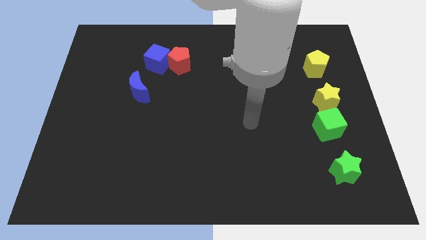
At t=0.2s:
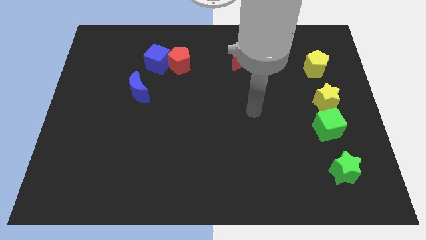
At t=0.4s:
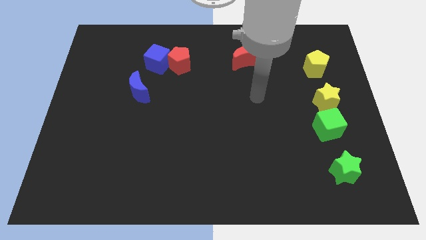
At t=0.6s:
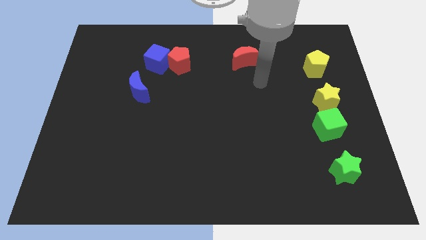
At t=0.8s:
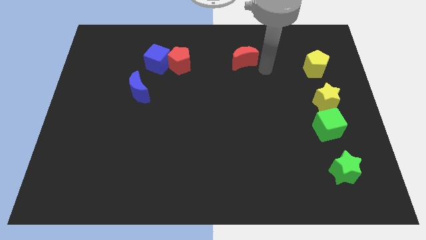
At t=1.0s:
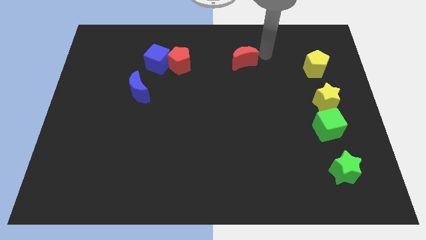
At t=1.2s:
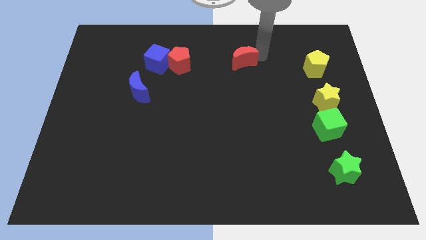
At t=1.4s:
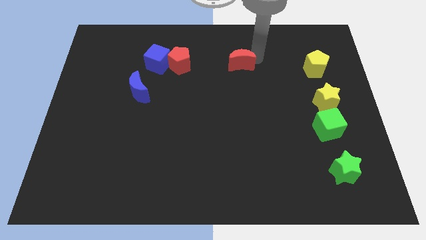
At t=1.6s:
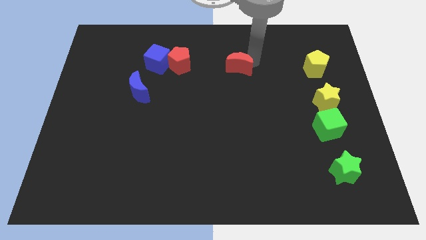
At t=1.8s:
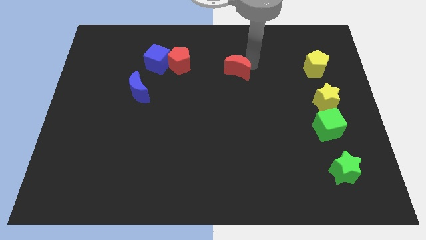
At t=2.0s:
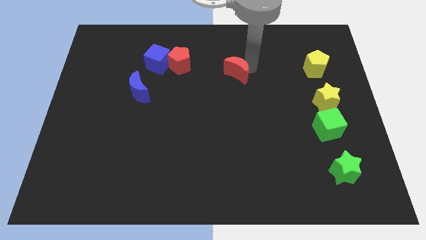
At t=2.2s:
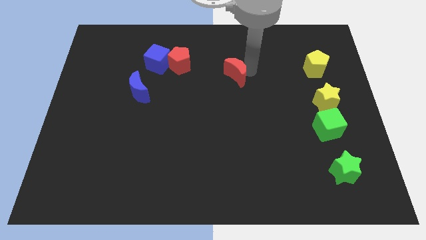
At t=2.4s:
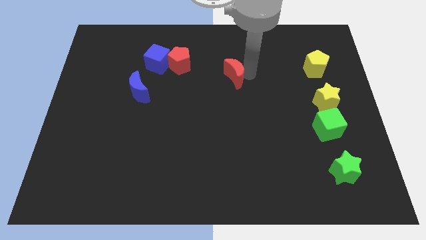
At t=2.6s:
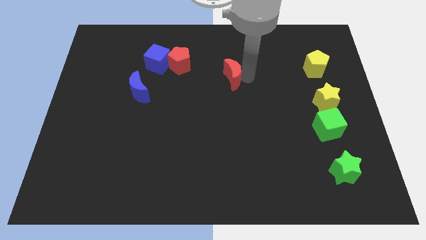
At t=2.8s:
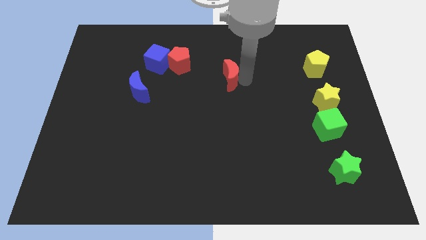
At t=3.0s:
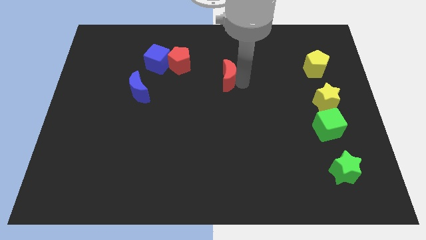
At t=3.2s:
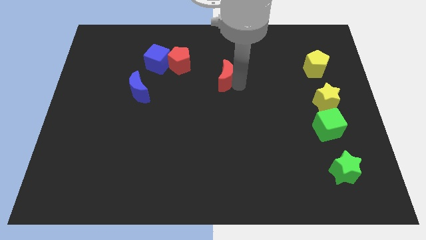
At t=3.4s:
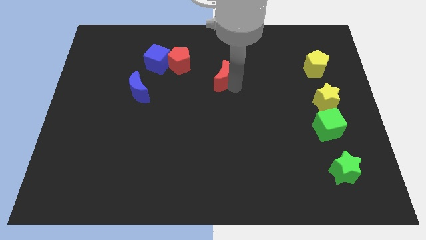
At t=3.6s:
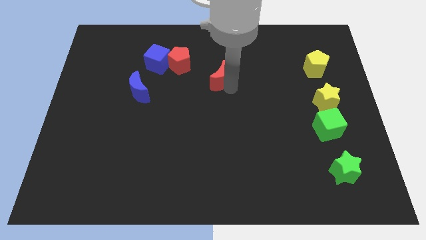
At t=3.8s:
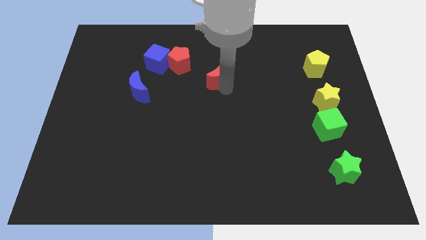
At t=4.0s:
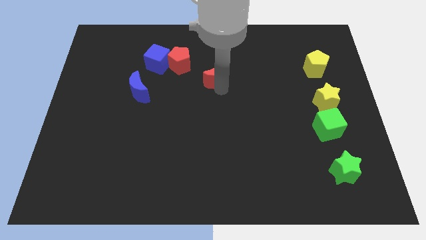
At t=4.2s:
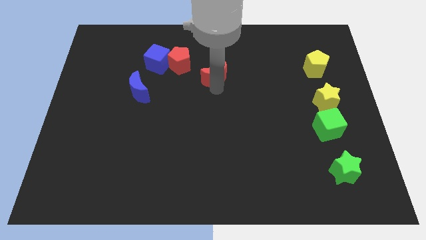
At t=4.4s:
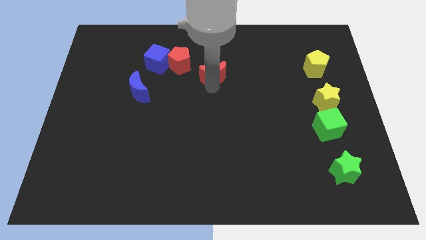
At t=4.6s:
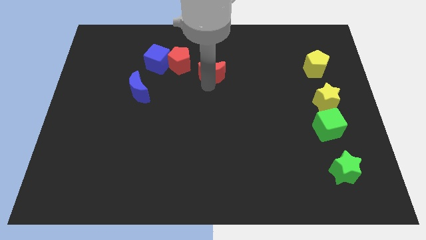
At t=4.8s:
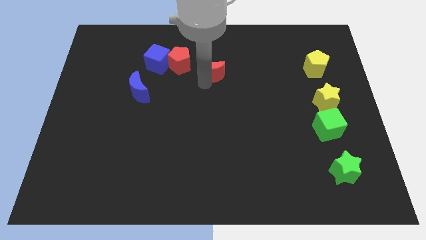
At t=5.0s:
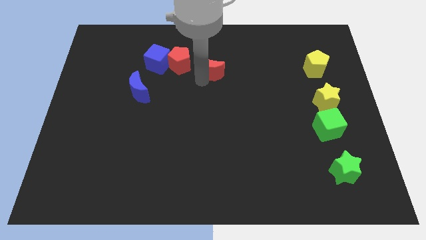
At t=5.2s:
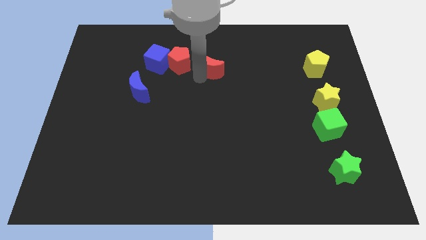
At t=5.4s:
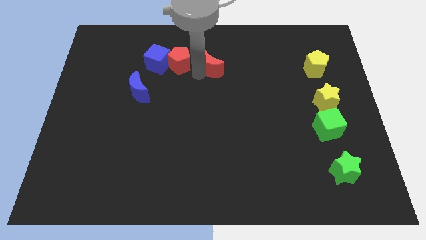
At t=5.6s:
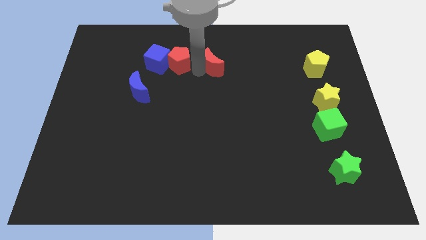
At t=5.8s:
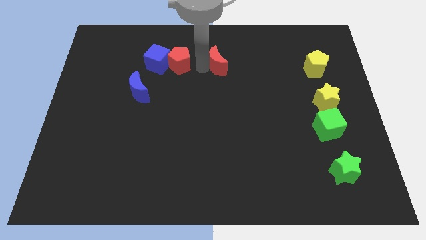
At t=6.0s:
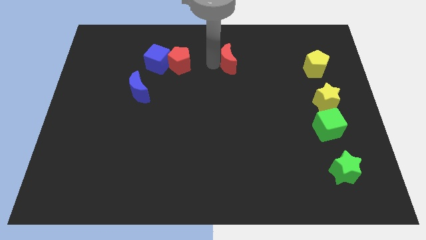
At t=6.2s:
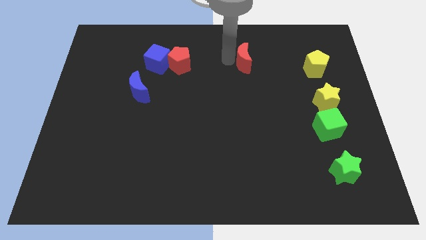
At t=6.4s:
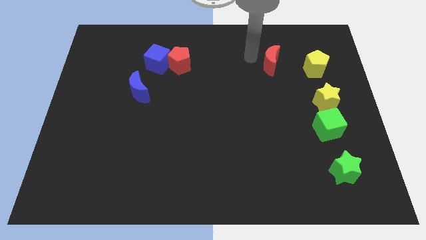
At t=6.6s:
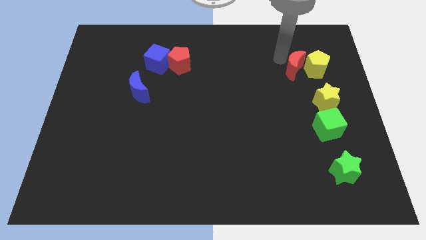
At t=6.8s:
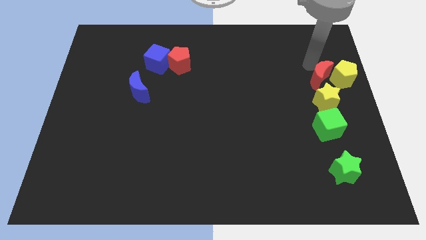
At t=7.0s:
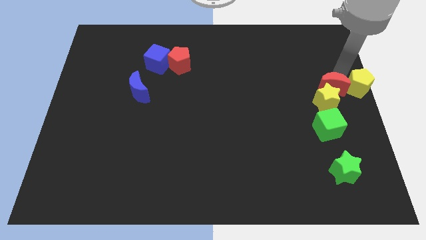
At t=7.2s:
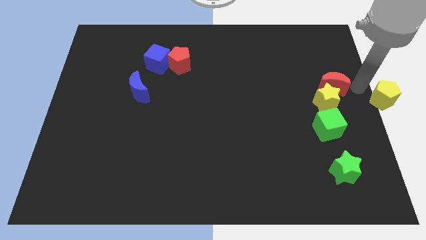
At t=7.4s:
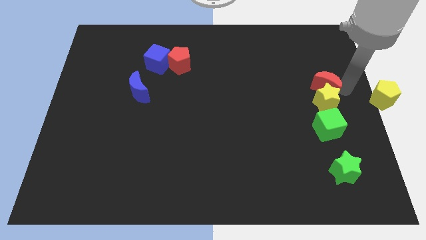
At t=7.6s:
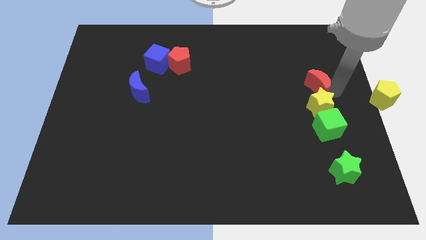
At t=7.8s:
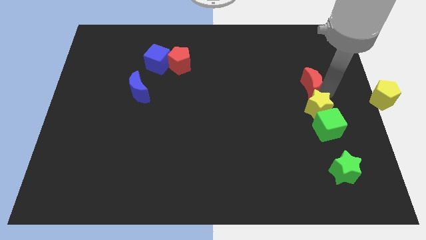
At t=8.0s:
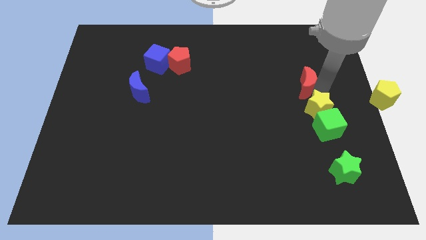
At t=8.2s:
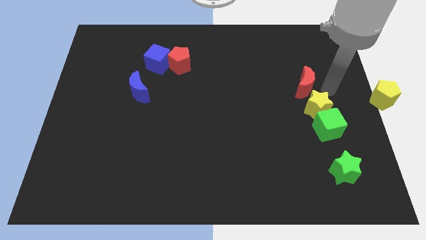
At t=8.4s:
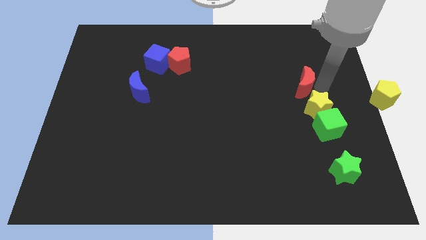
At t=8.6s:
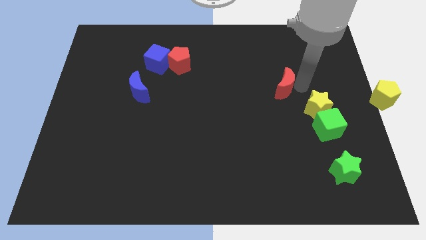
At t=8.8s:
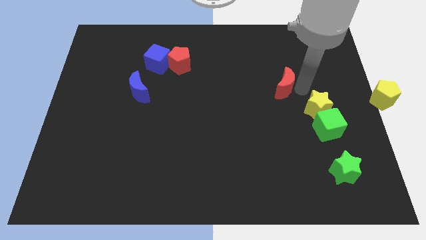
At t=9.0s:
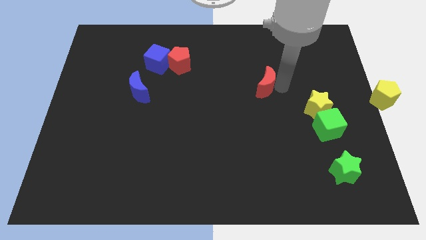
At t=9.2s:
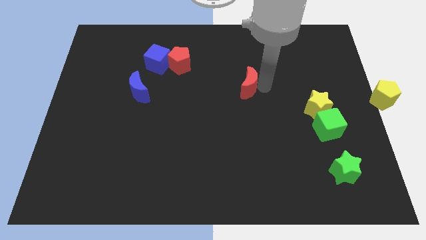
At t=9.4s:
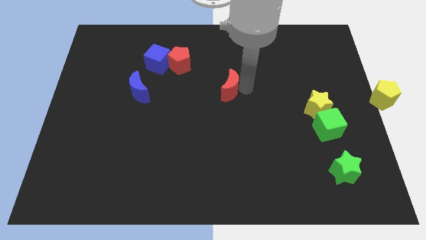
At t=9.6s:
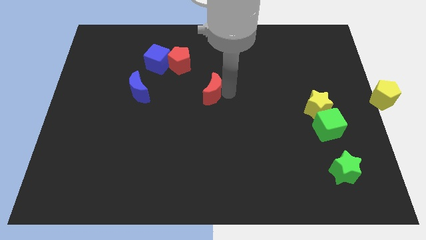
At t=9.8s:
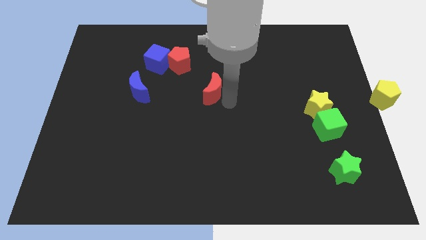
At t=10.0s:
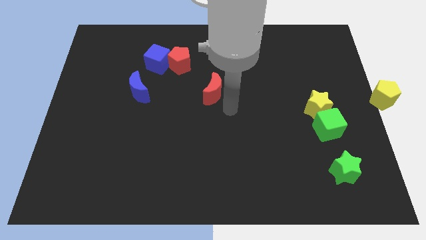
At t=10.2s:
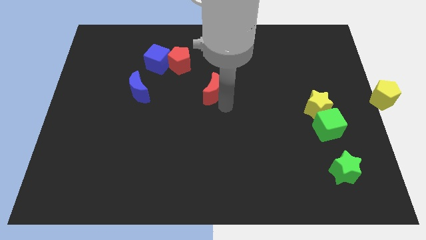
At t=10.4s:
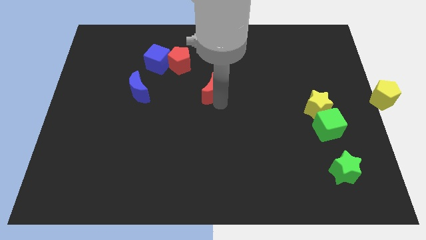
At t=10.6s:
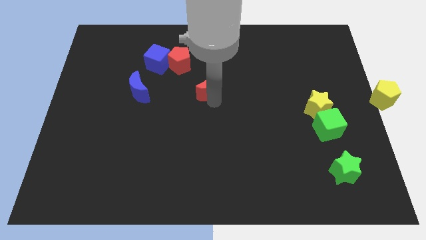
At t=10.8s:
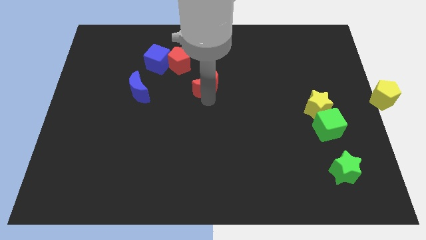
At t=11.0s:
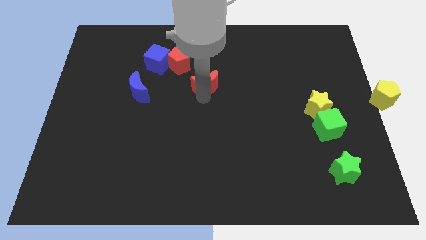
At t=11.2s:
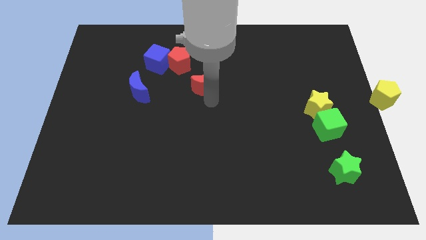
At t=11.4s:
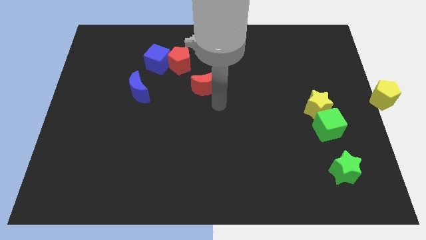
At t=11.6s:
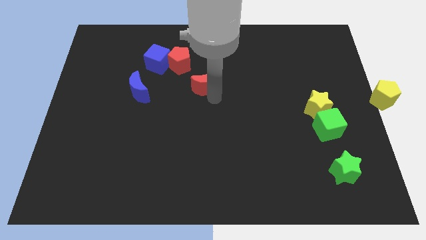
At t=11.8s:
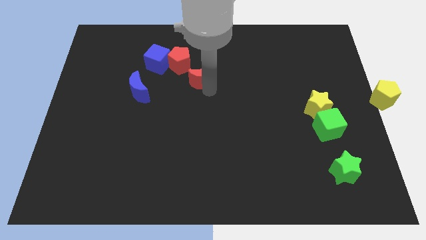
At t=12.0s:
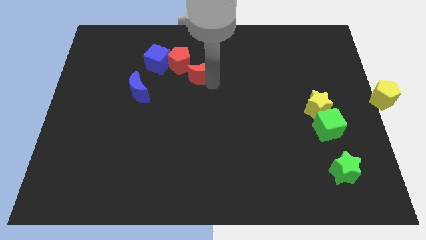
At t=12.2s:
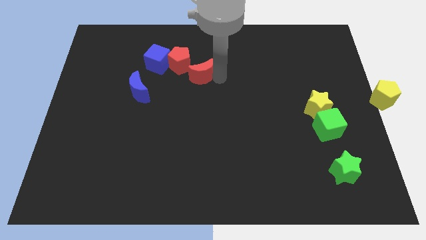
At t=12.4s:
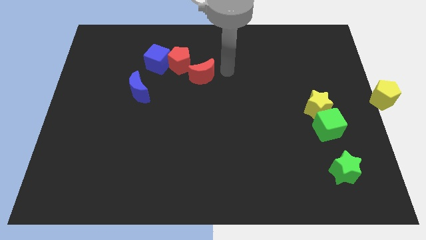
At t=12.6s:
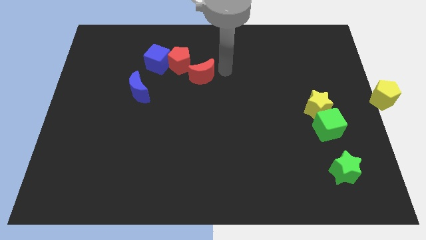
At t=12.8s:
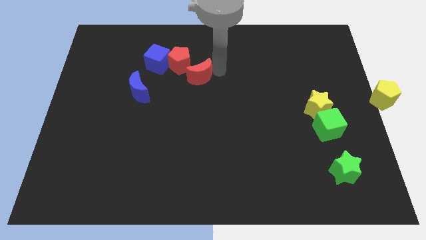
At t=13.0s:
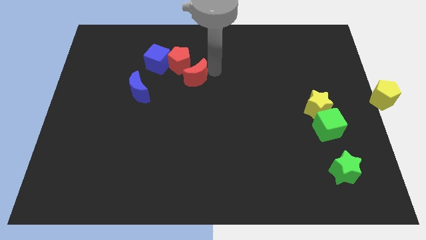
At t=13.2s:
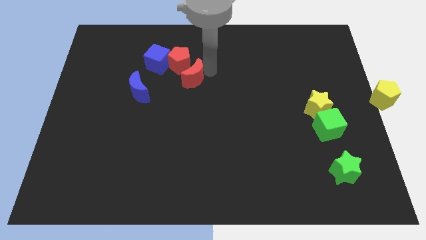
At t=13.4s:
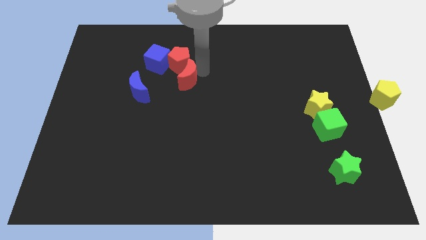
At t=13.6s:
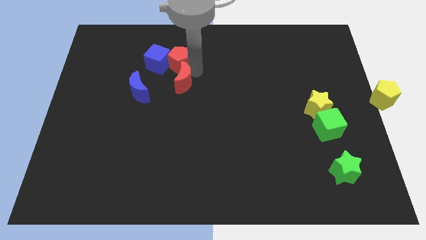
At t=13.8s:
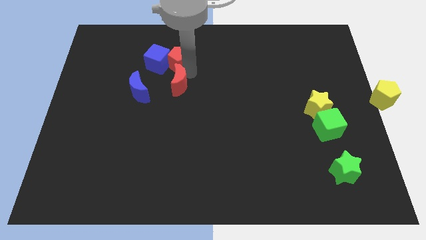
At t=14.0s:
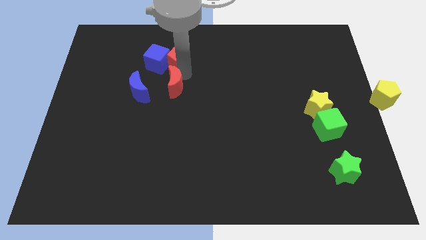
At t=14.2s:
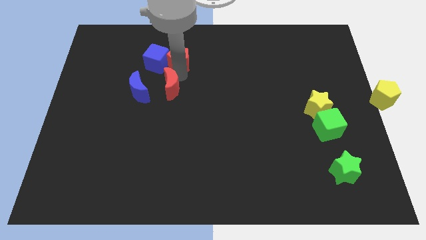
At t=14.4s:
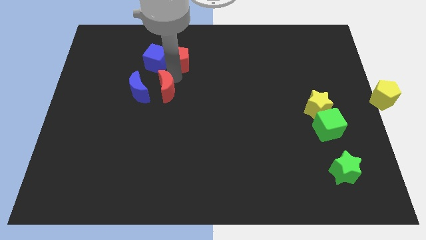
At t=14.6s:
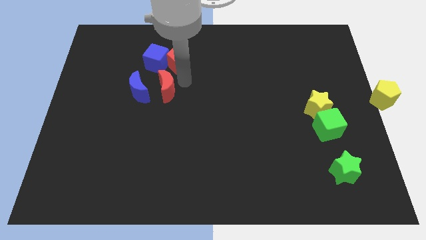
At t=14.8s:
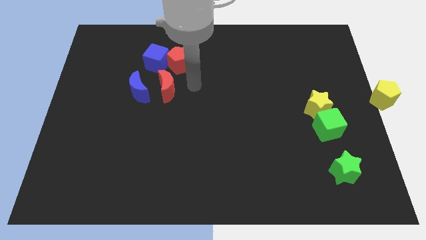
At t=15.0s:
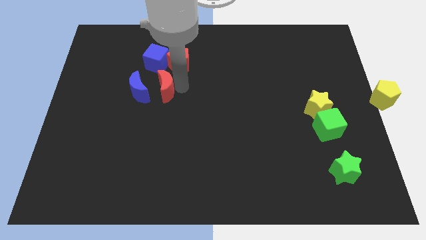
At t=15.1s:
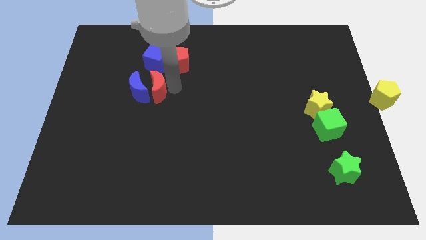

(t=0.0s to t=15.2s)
push the red moon close to the blue moon
